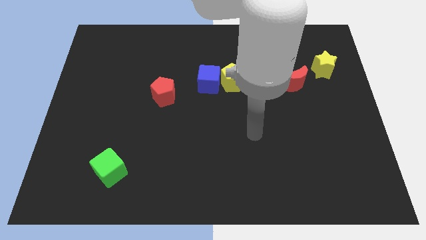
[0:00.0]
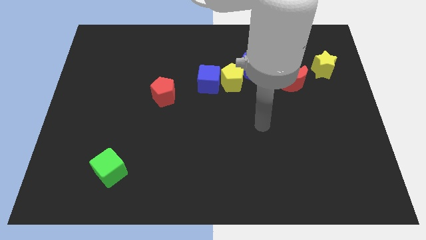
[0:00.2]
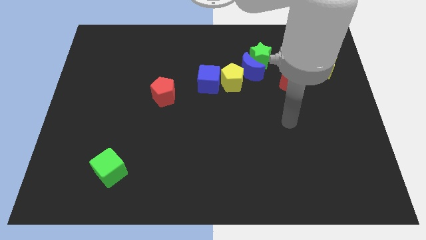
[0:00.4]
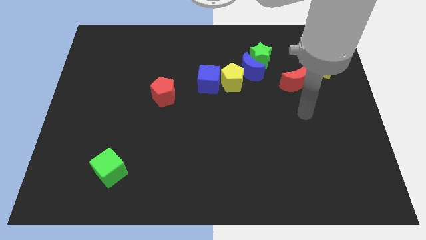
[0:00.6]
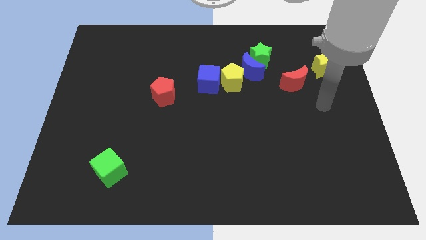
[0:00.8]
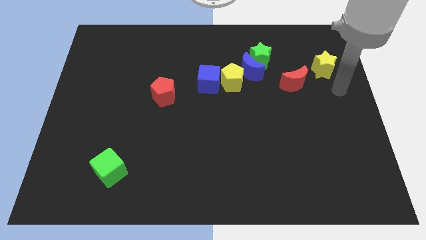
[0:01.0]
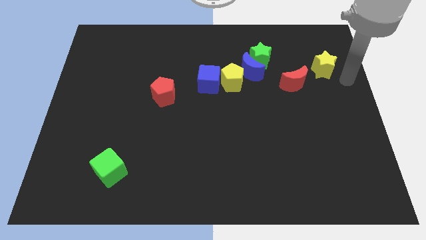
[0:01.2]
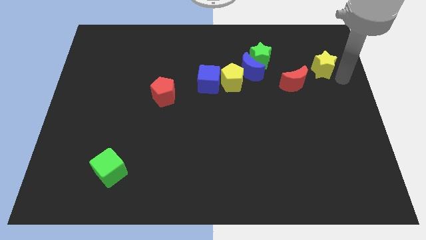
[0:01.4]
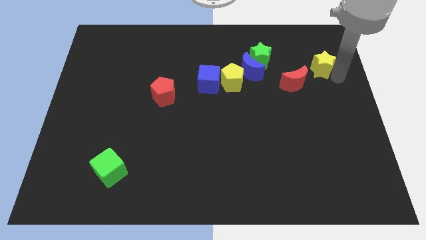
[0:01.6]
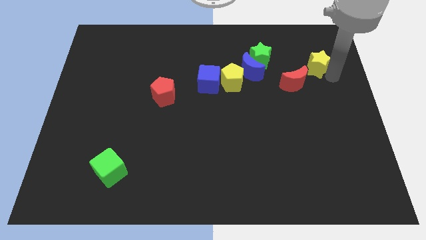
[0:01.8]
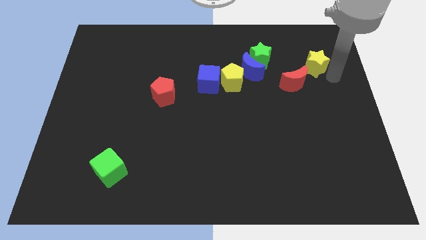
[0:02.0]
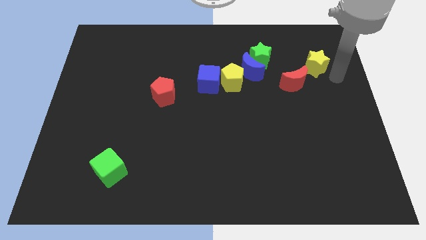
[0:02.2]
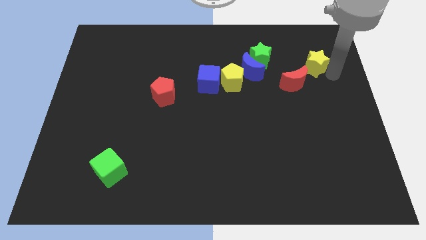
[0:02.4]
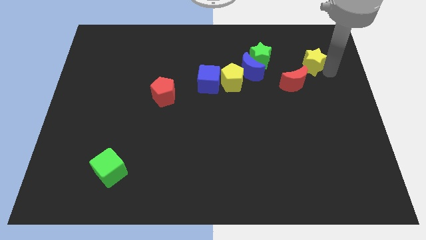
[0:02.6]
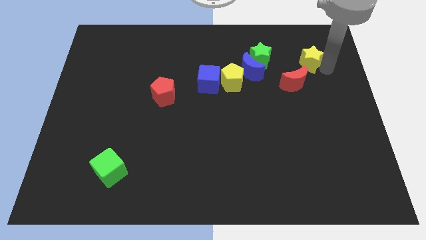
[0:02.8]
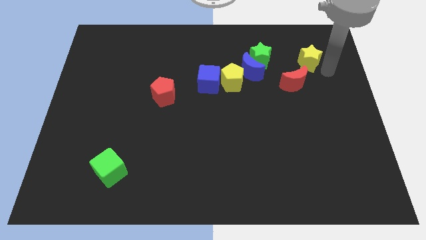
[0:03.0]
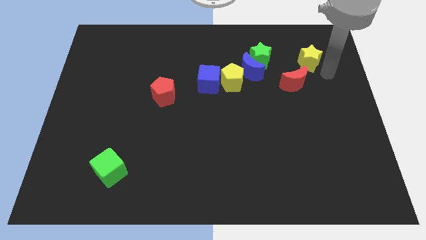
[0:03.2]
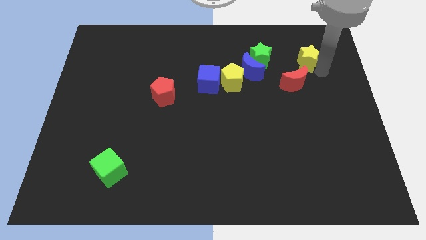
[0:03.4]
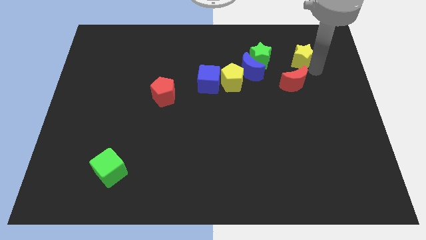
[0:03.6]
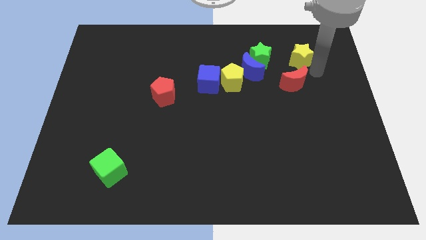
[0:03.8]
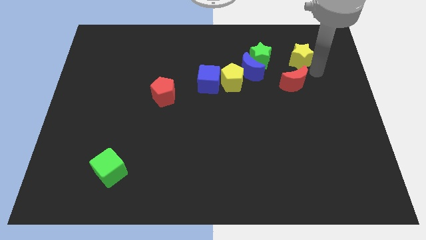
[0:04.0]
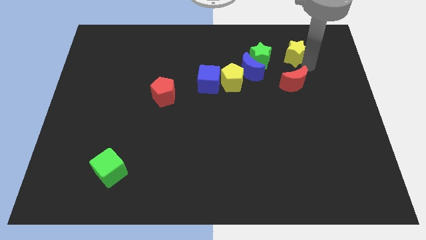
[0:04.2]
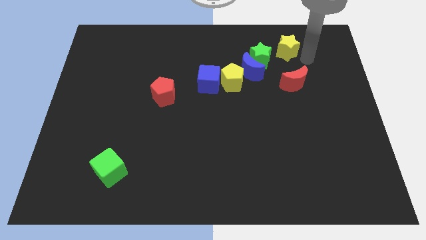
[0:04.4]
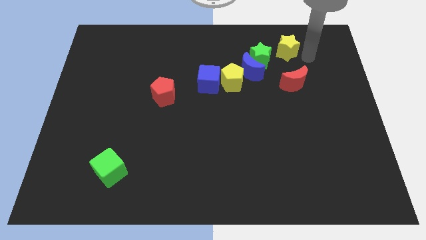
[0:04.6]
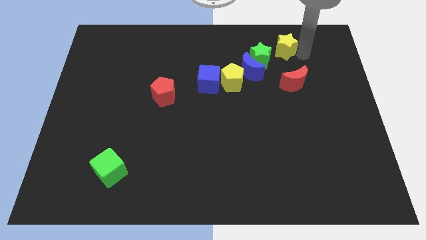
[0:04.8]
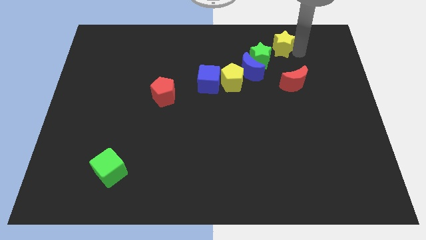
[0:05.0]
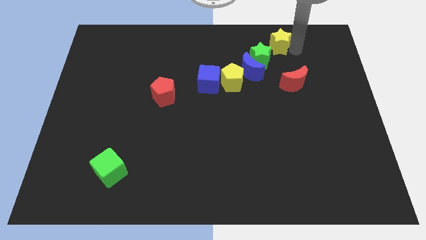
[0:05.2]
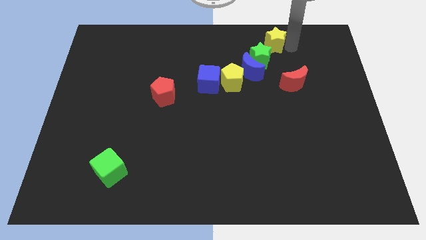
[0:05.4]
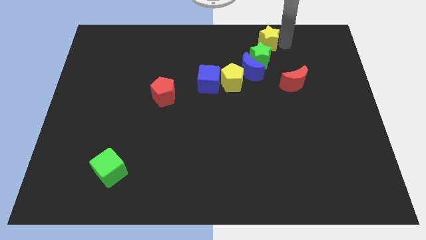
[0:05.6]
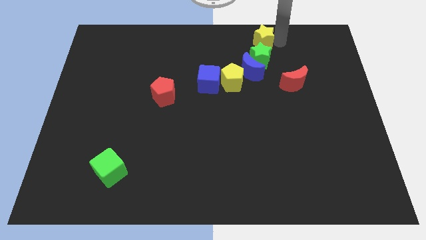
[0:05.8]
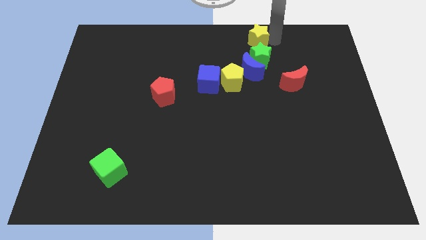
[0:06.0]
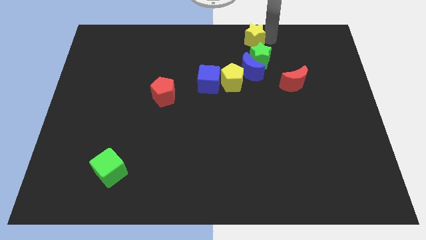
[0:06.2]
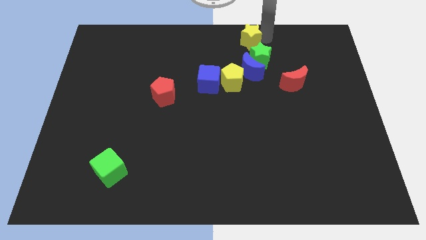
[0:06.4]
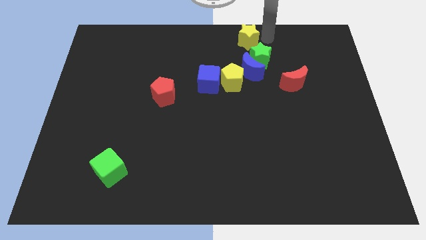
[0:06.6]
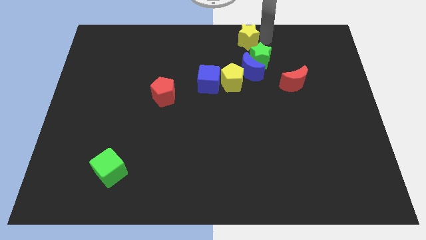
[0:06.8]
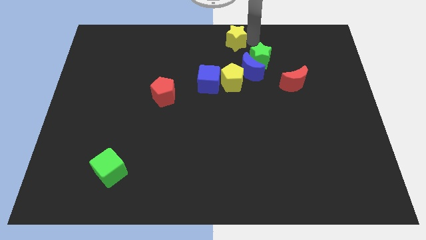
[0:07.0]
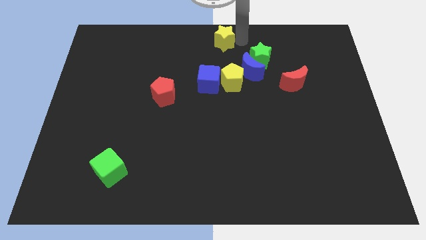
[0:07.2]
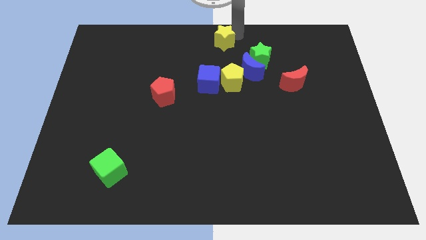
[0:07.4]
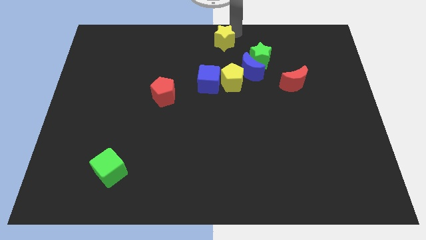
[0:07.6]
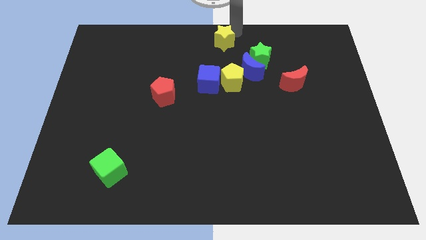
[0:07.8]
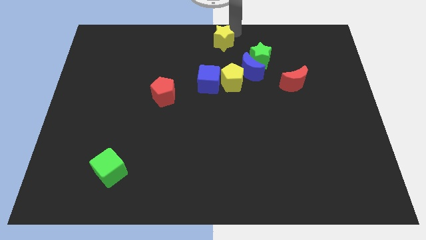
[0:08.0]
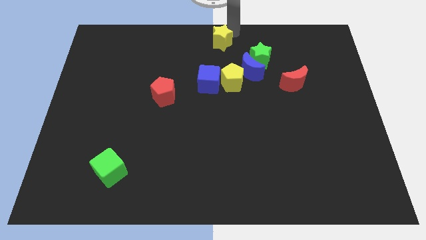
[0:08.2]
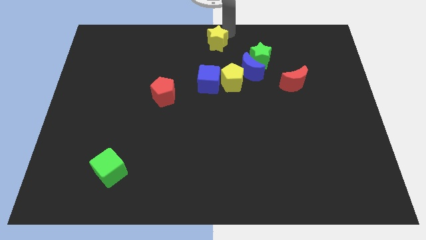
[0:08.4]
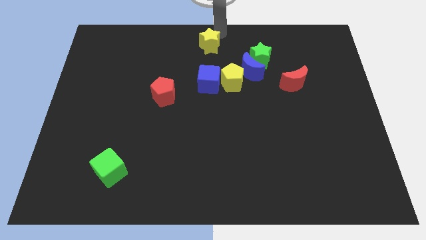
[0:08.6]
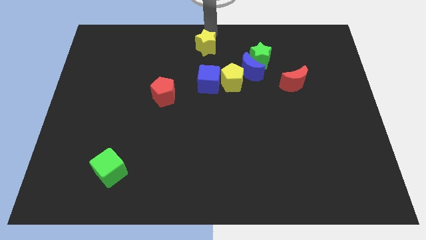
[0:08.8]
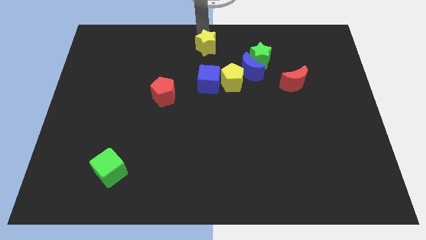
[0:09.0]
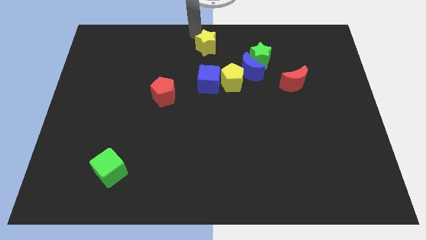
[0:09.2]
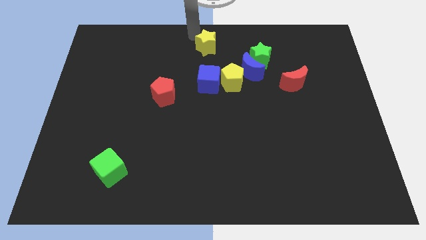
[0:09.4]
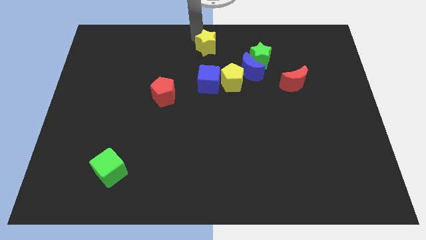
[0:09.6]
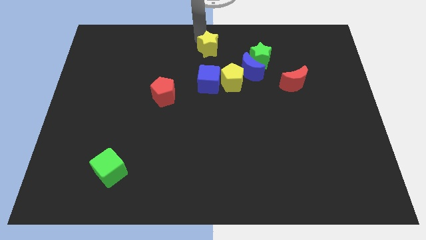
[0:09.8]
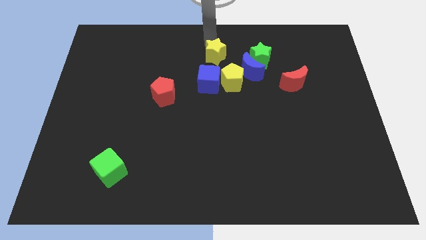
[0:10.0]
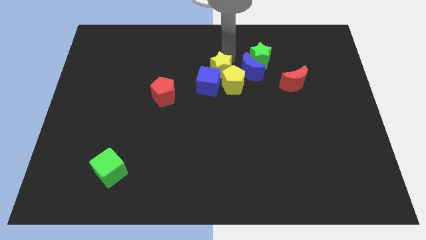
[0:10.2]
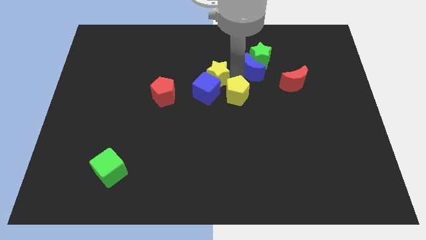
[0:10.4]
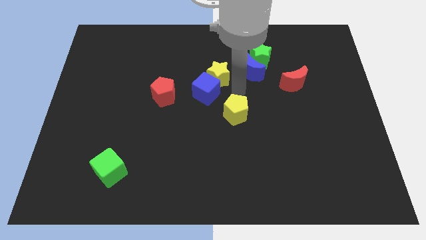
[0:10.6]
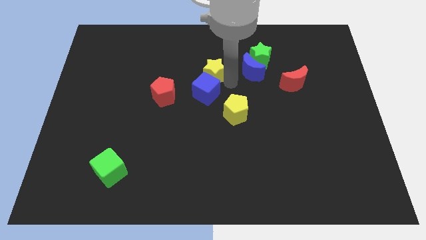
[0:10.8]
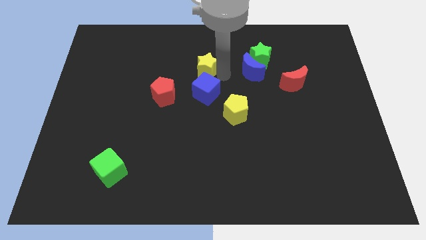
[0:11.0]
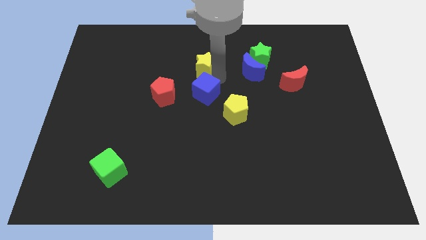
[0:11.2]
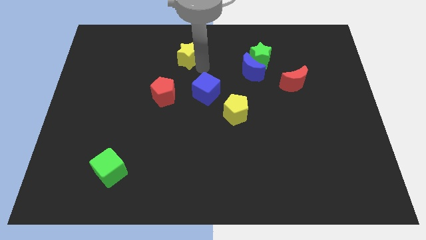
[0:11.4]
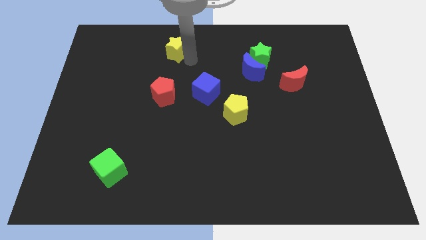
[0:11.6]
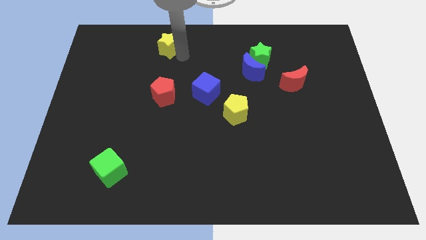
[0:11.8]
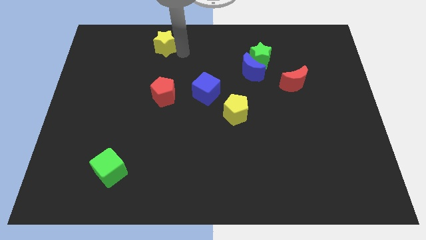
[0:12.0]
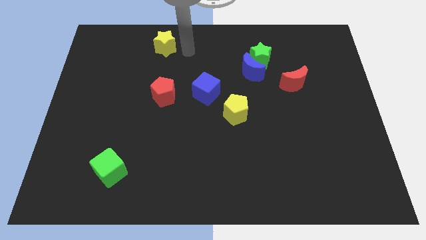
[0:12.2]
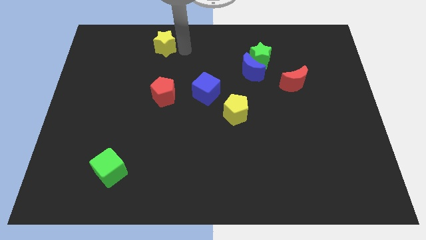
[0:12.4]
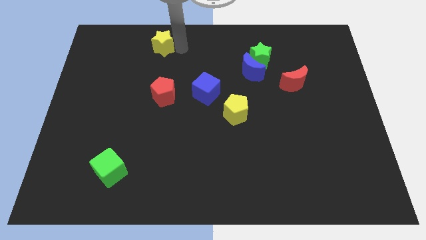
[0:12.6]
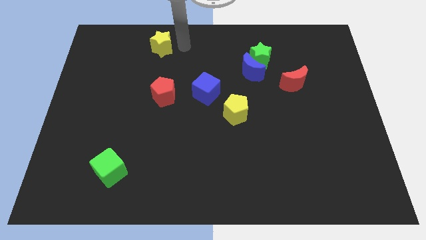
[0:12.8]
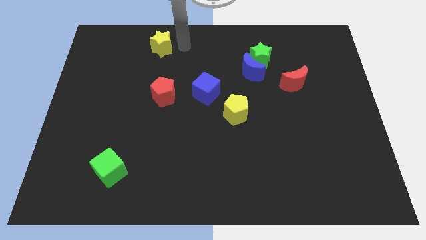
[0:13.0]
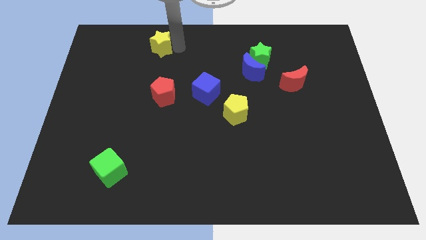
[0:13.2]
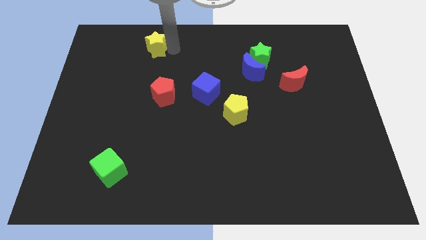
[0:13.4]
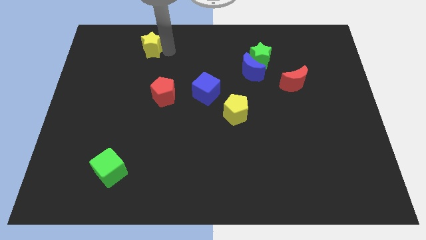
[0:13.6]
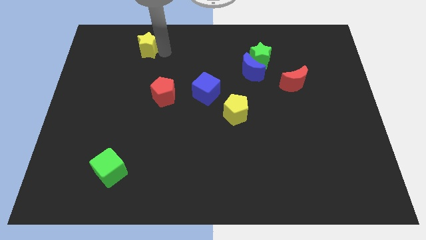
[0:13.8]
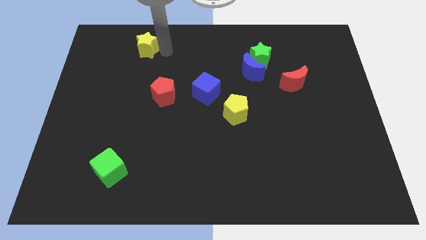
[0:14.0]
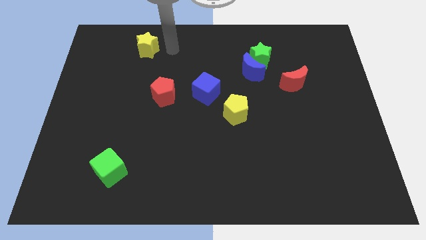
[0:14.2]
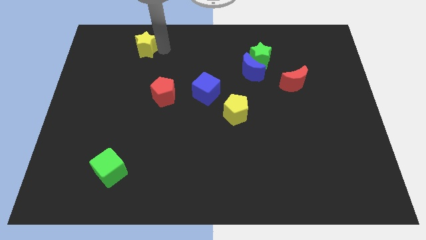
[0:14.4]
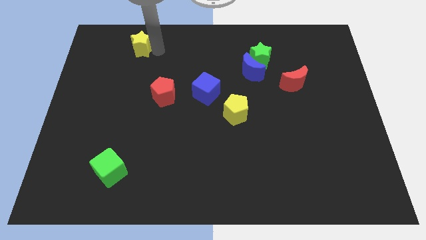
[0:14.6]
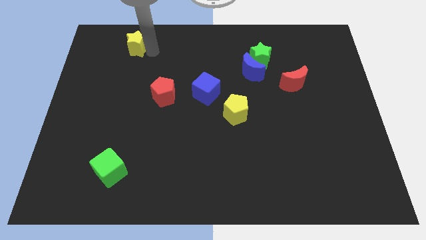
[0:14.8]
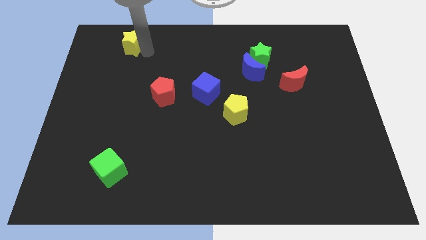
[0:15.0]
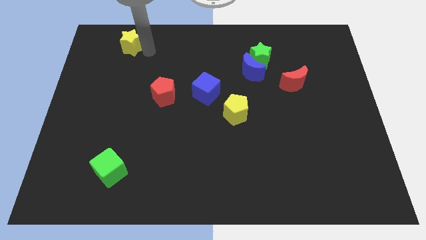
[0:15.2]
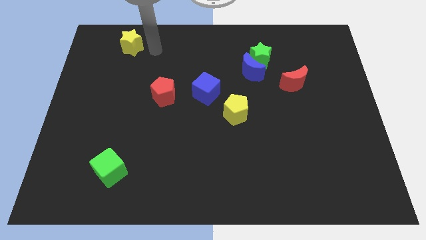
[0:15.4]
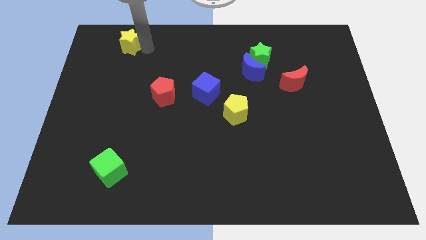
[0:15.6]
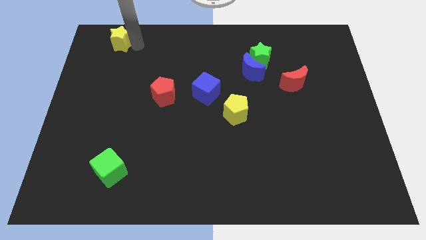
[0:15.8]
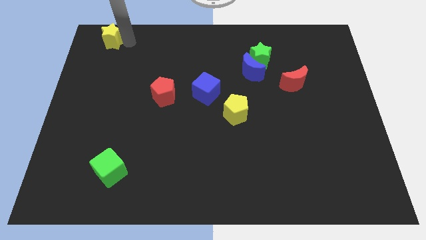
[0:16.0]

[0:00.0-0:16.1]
move the yellow star to the upper left corner
